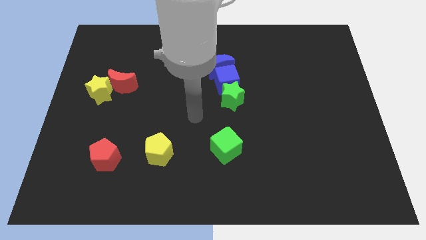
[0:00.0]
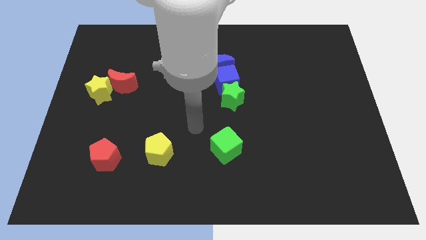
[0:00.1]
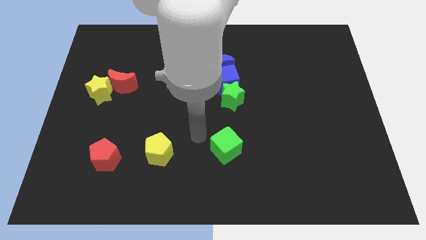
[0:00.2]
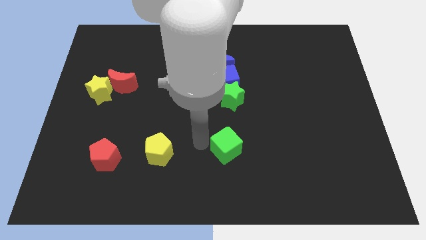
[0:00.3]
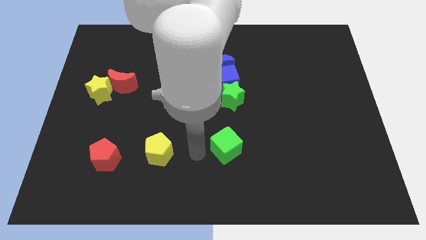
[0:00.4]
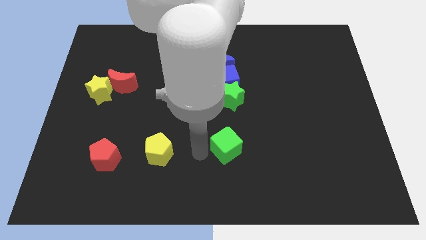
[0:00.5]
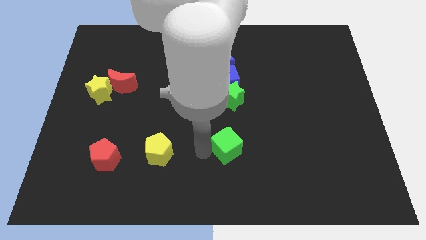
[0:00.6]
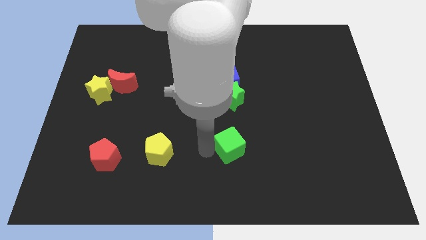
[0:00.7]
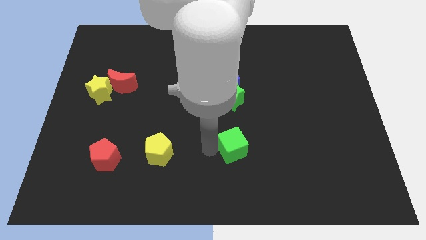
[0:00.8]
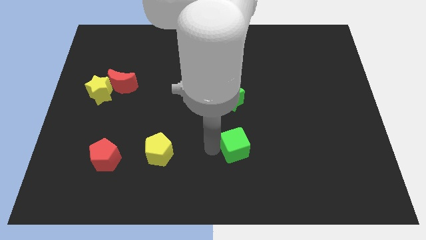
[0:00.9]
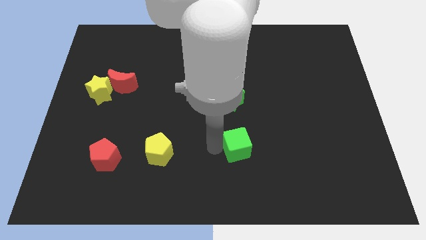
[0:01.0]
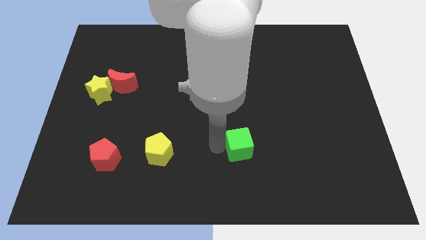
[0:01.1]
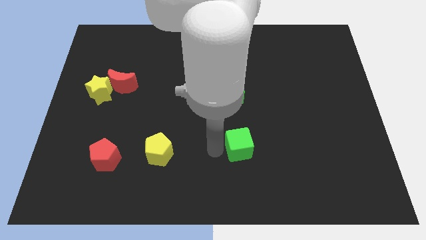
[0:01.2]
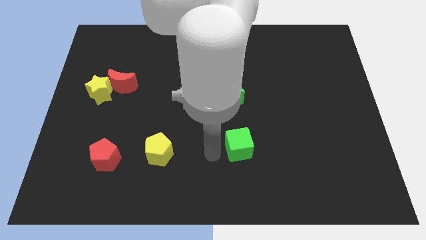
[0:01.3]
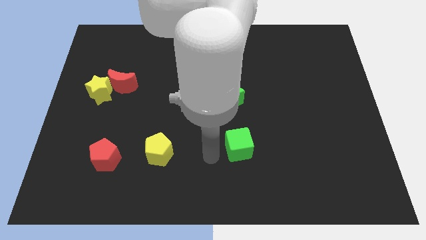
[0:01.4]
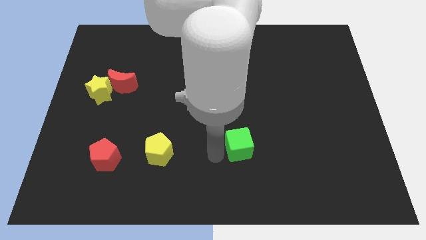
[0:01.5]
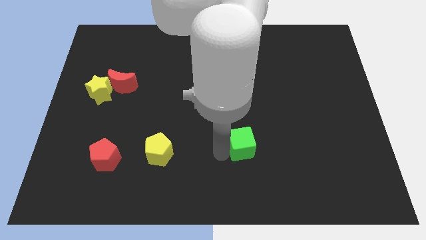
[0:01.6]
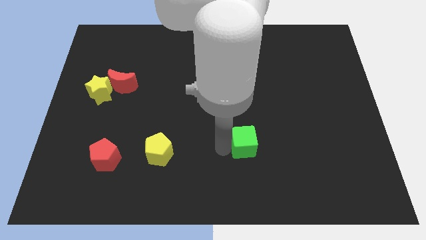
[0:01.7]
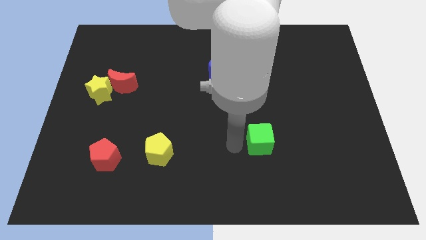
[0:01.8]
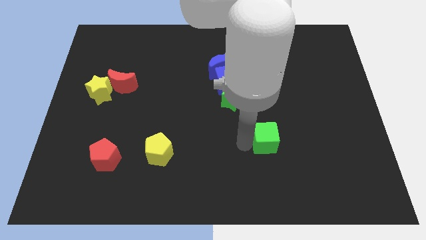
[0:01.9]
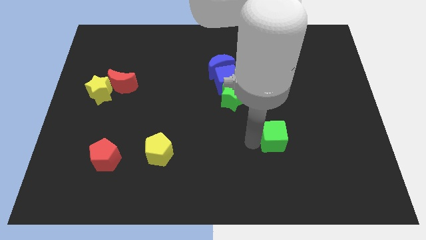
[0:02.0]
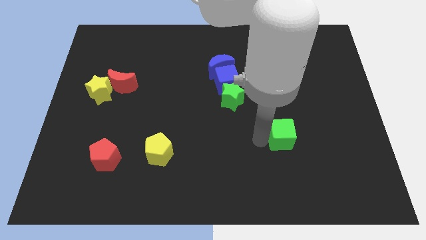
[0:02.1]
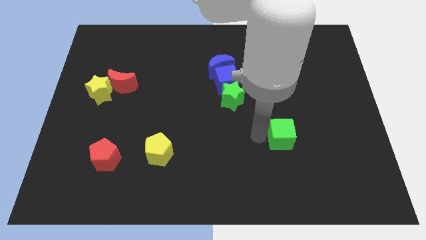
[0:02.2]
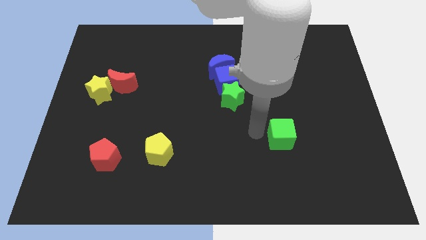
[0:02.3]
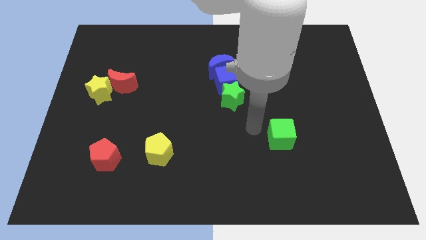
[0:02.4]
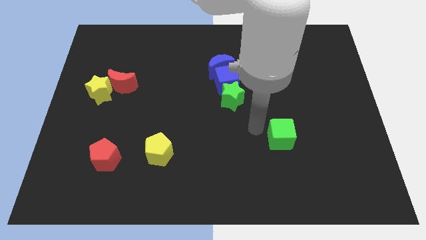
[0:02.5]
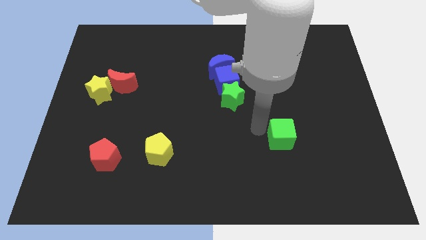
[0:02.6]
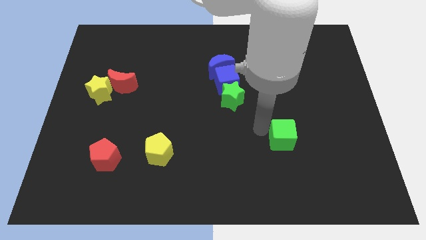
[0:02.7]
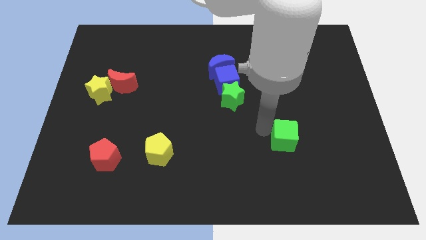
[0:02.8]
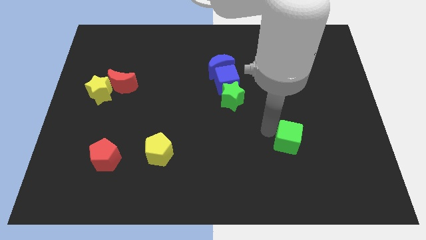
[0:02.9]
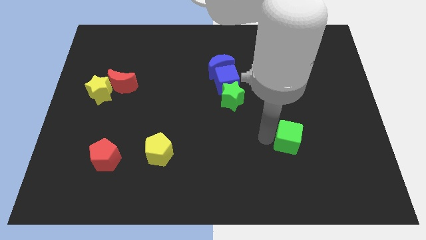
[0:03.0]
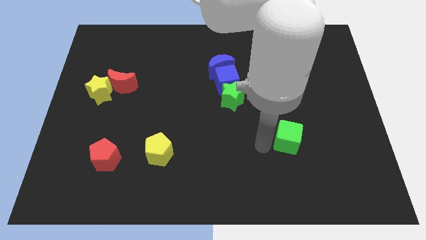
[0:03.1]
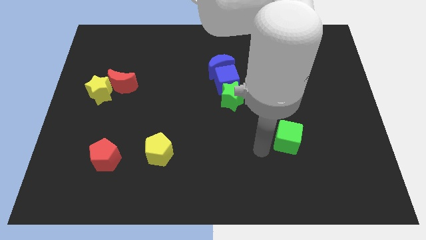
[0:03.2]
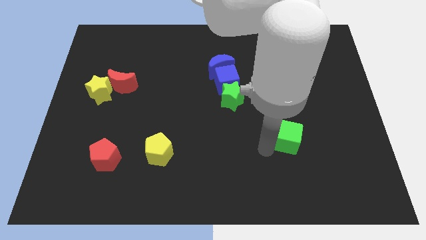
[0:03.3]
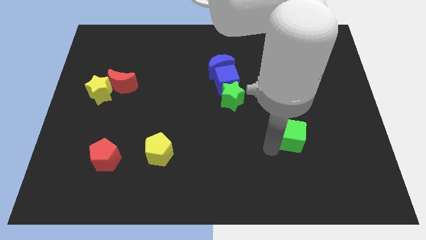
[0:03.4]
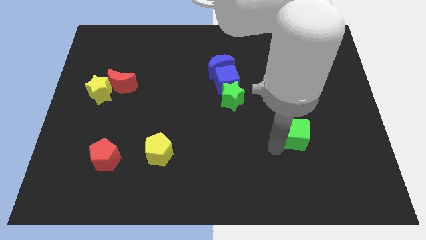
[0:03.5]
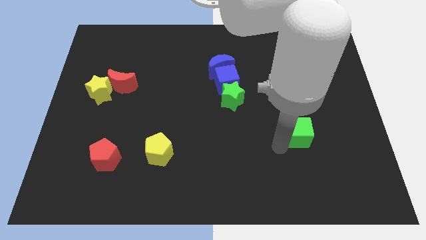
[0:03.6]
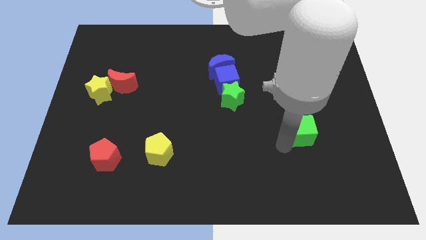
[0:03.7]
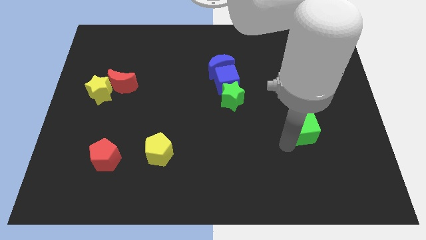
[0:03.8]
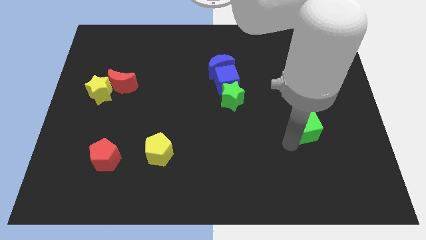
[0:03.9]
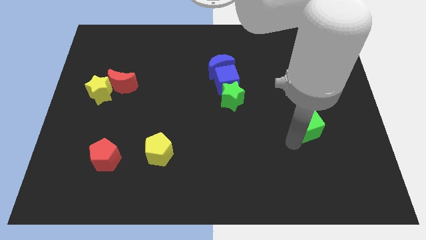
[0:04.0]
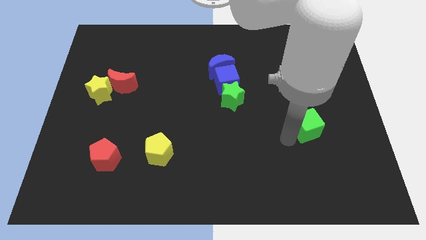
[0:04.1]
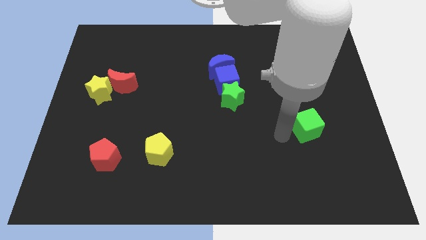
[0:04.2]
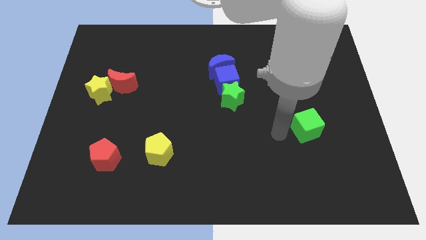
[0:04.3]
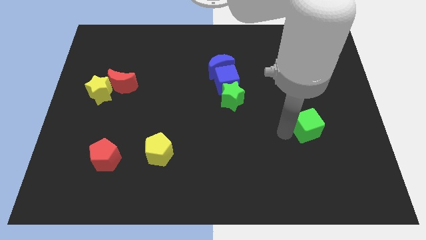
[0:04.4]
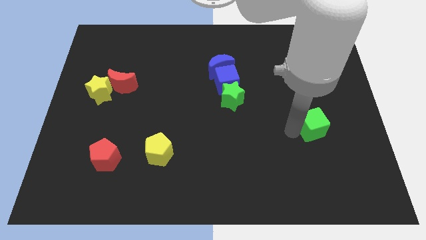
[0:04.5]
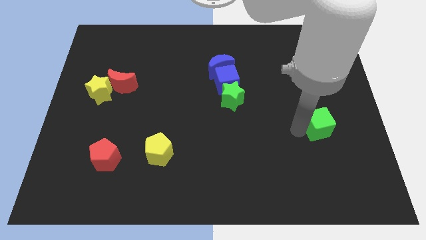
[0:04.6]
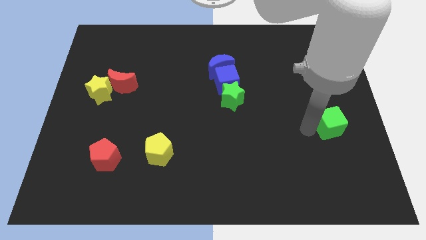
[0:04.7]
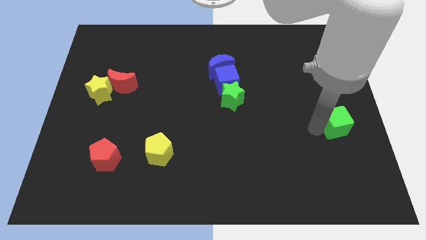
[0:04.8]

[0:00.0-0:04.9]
slide the green cube to the right side of the board
